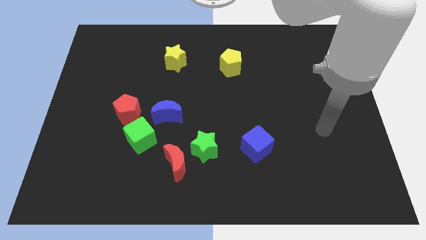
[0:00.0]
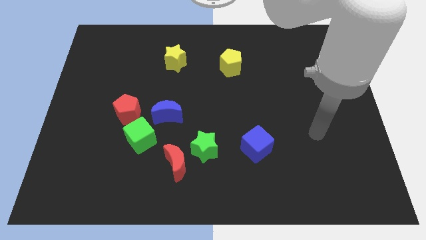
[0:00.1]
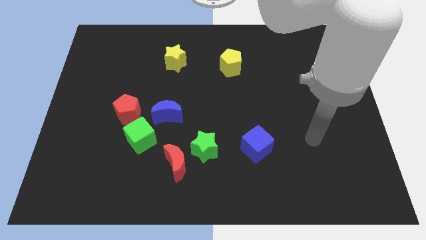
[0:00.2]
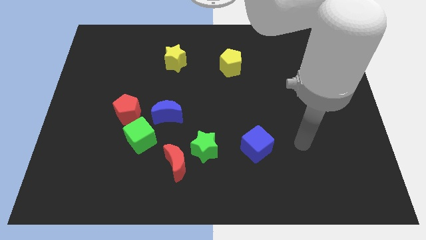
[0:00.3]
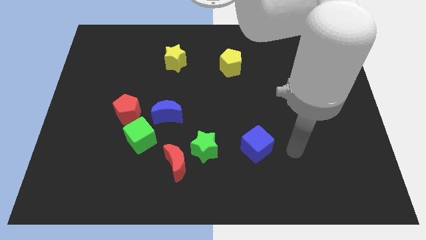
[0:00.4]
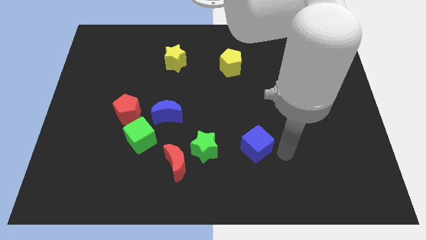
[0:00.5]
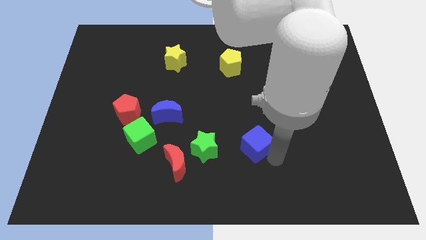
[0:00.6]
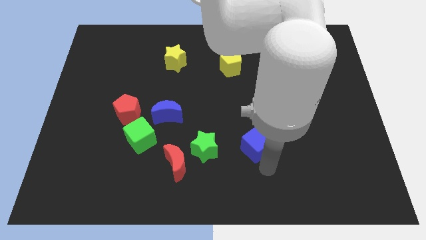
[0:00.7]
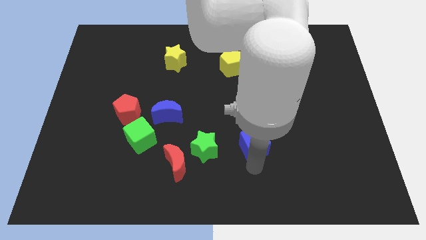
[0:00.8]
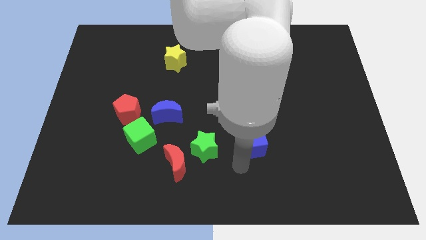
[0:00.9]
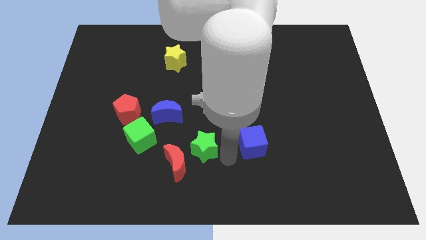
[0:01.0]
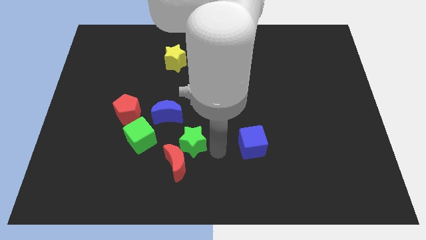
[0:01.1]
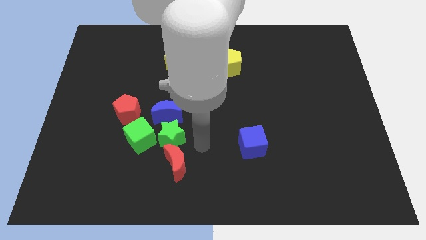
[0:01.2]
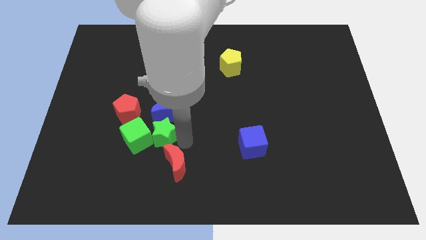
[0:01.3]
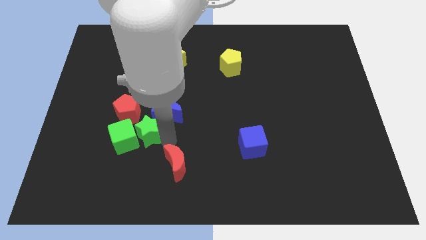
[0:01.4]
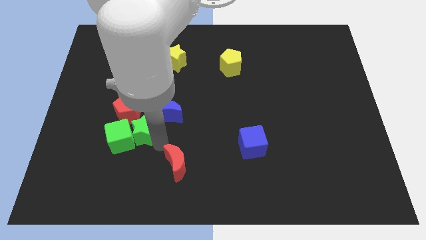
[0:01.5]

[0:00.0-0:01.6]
move the red moon away from the green star

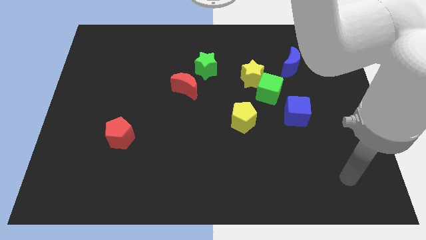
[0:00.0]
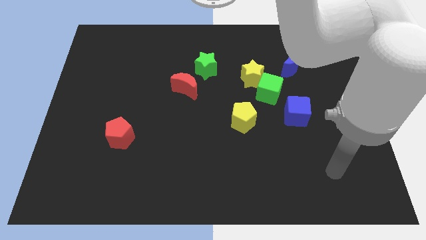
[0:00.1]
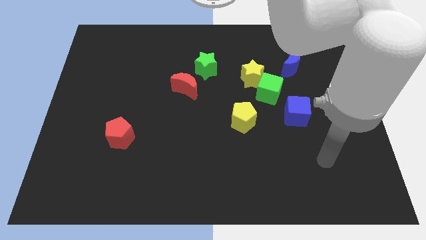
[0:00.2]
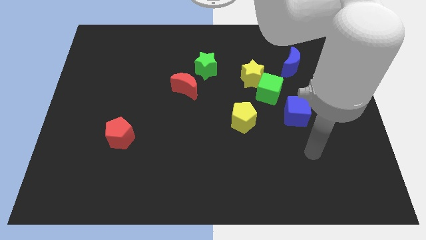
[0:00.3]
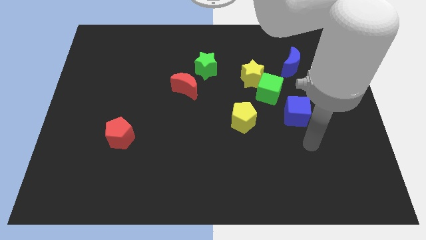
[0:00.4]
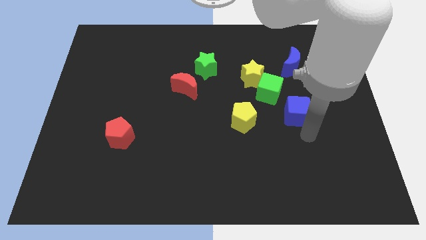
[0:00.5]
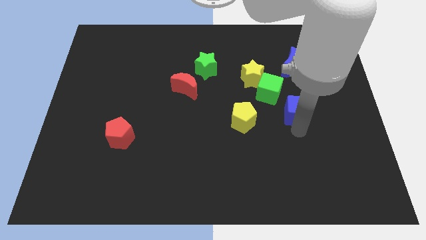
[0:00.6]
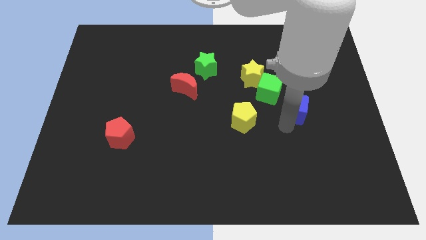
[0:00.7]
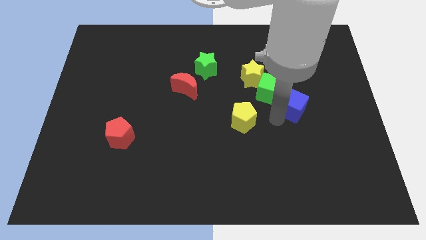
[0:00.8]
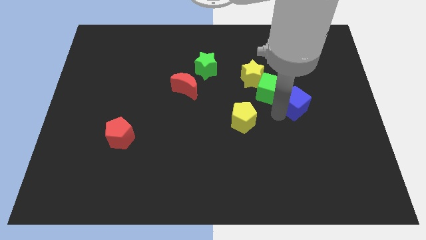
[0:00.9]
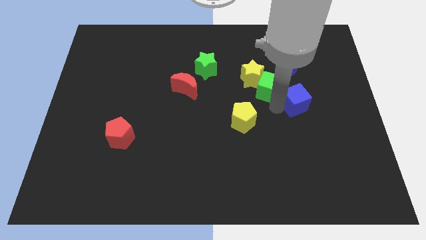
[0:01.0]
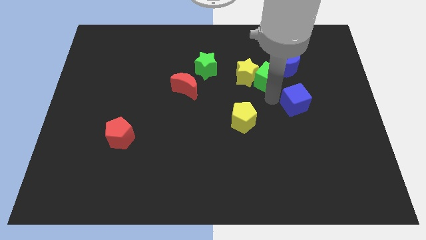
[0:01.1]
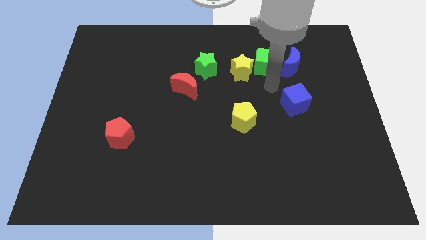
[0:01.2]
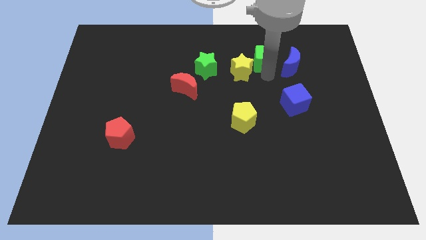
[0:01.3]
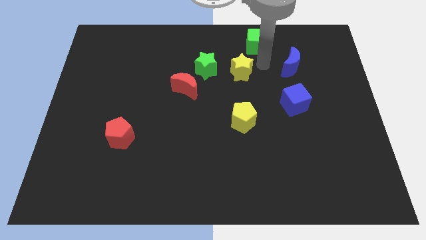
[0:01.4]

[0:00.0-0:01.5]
pull the yellow star apart from the green cube

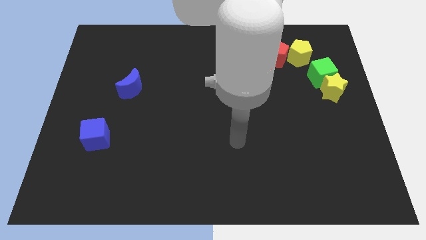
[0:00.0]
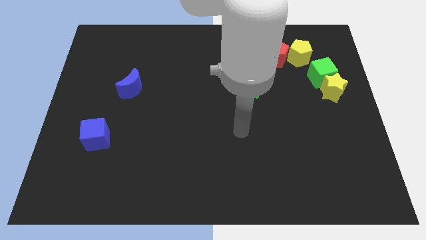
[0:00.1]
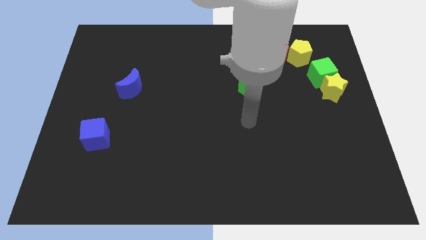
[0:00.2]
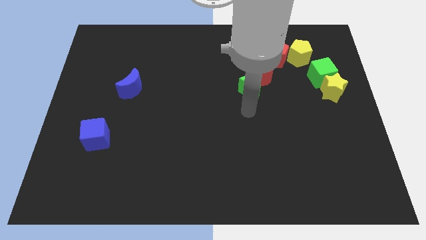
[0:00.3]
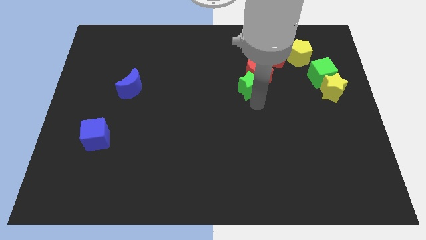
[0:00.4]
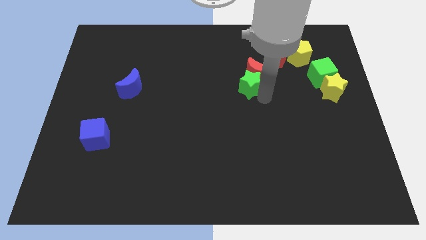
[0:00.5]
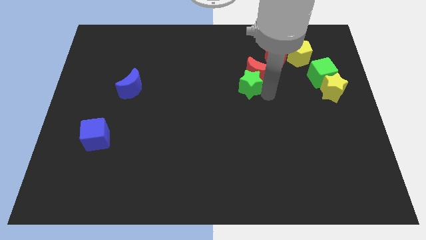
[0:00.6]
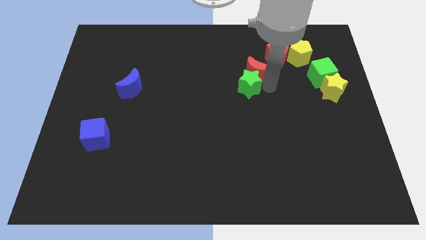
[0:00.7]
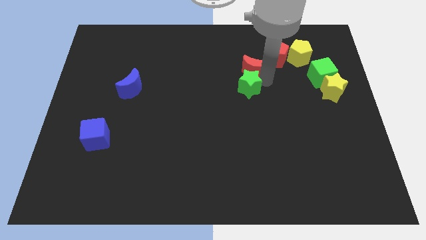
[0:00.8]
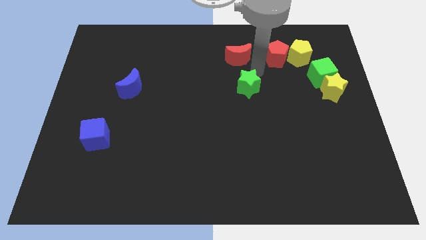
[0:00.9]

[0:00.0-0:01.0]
pull the green star apart from the red moon

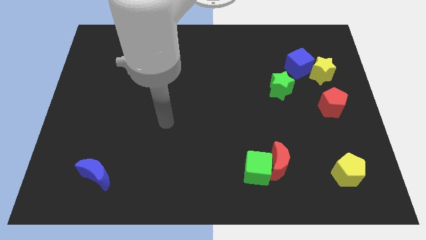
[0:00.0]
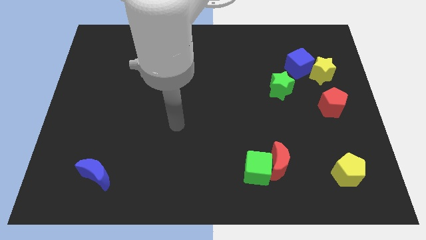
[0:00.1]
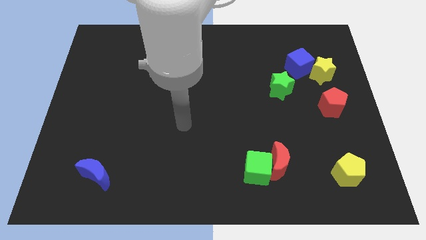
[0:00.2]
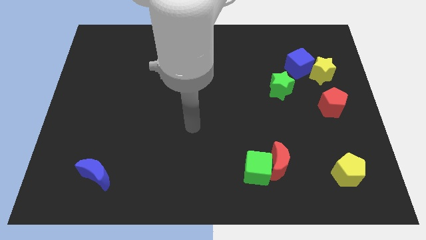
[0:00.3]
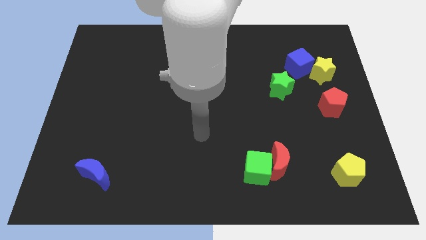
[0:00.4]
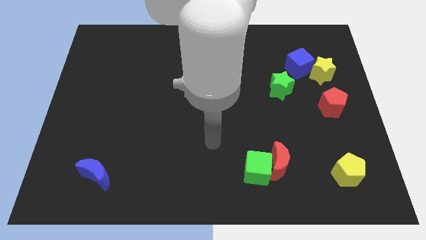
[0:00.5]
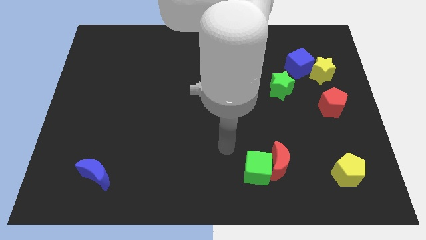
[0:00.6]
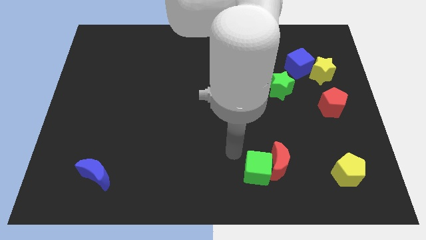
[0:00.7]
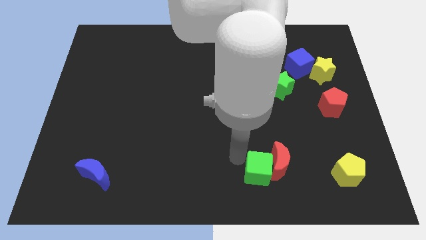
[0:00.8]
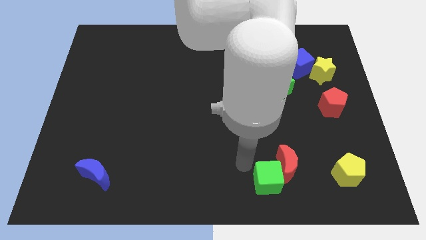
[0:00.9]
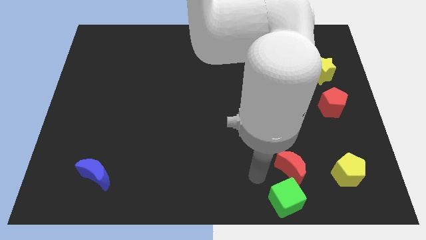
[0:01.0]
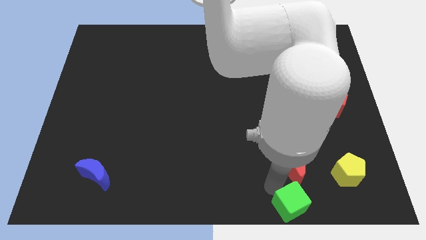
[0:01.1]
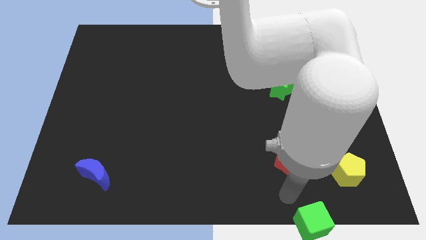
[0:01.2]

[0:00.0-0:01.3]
pull the red moon apart from the green cube

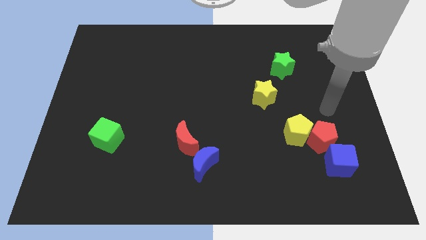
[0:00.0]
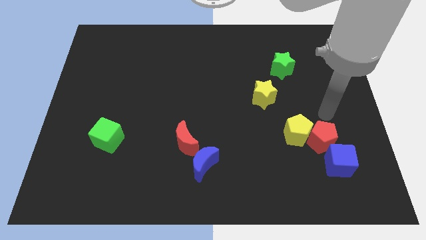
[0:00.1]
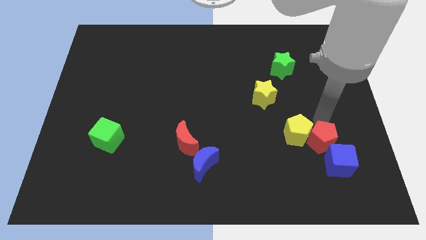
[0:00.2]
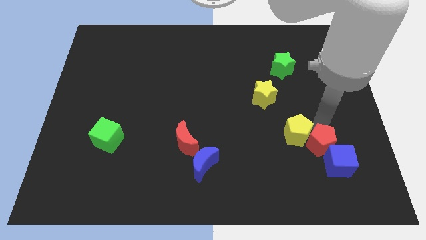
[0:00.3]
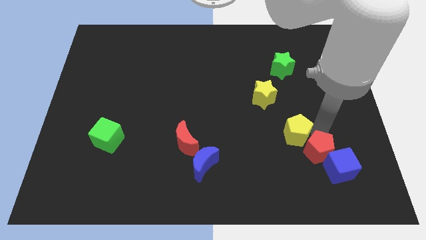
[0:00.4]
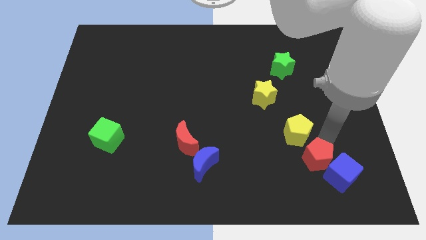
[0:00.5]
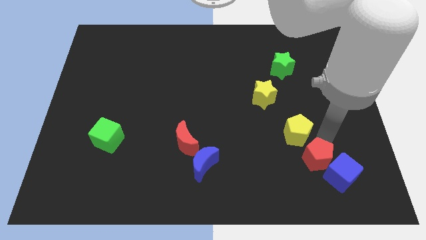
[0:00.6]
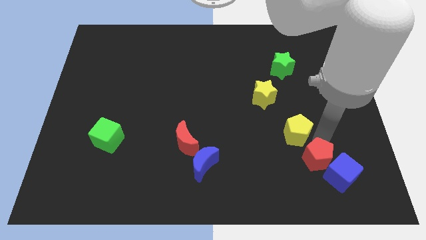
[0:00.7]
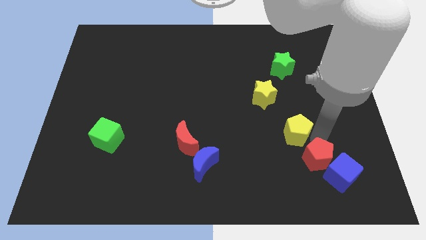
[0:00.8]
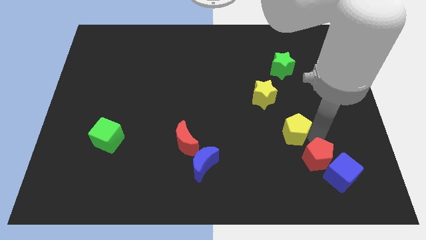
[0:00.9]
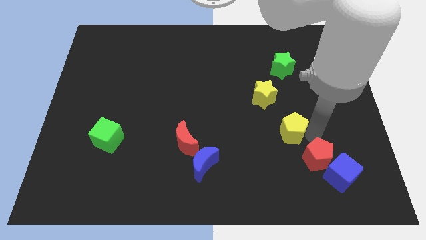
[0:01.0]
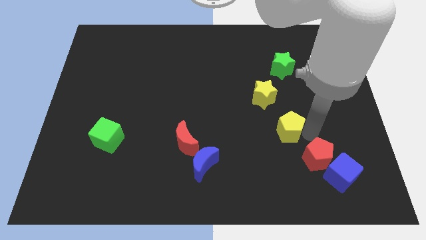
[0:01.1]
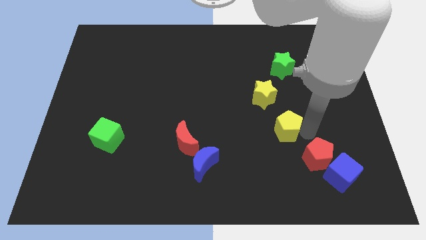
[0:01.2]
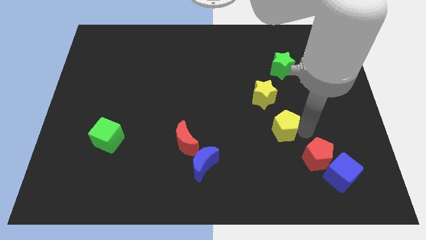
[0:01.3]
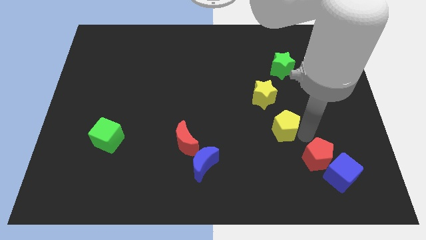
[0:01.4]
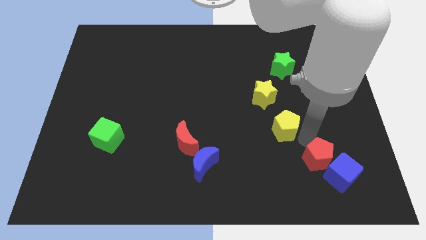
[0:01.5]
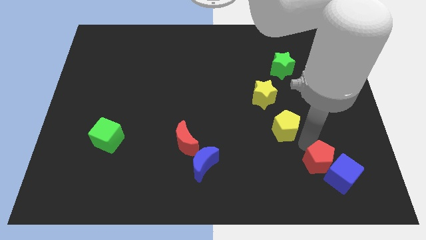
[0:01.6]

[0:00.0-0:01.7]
separate the yellow pentagon from the red pentagon

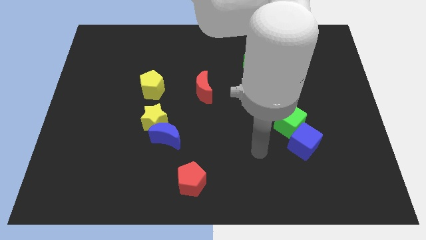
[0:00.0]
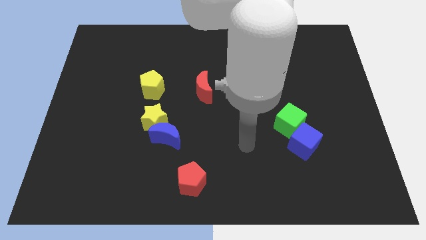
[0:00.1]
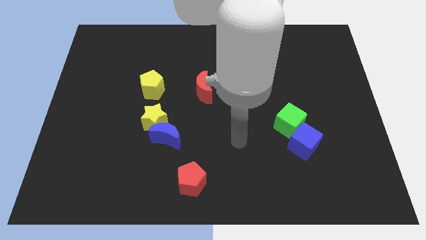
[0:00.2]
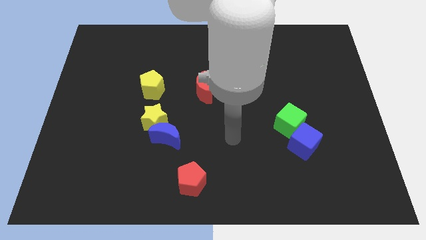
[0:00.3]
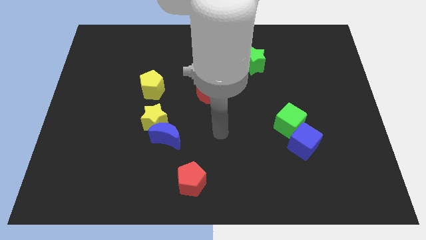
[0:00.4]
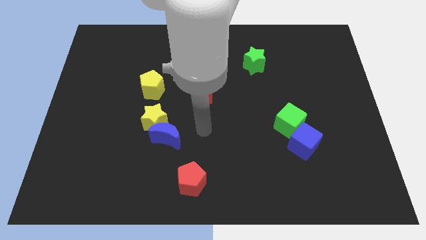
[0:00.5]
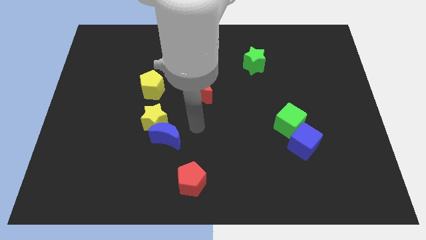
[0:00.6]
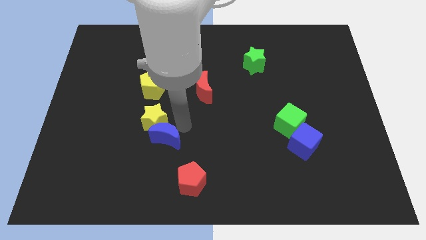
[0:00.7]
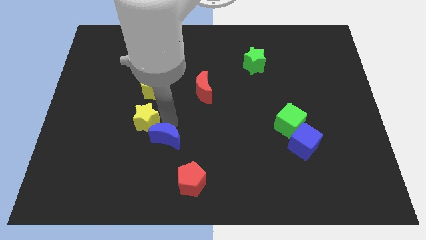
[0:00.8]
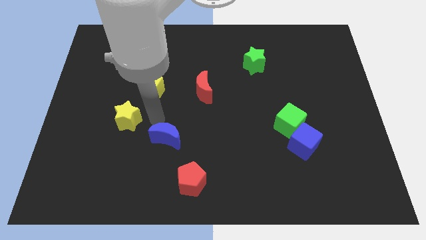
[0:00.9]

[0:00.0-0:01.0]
separate the blue moon from the yellow star

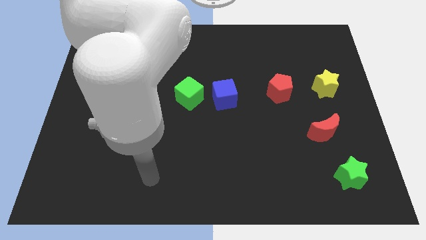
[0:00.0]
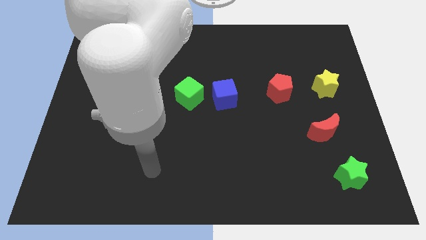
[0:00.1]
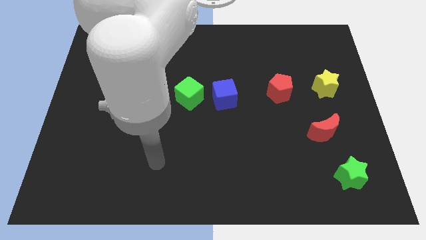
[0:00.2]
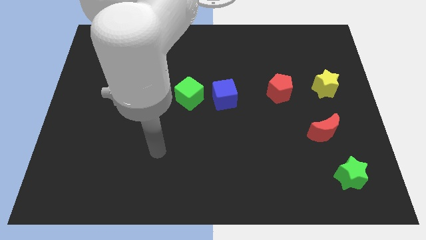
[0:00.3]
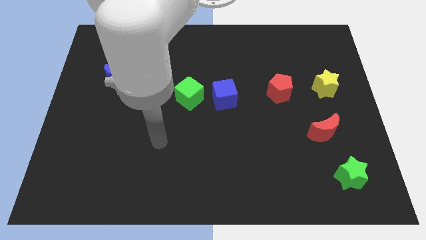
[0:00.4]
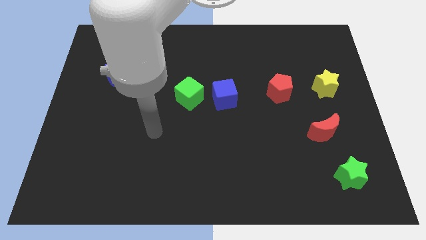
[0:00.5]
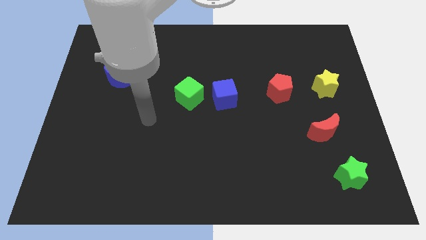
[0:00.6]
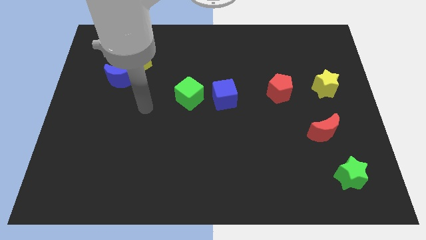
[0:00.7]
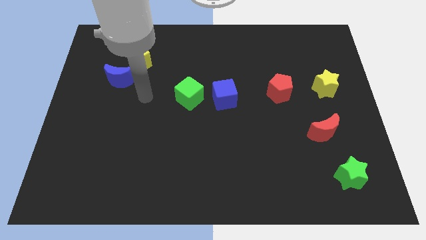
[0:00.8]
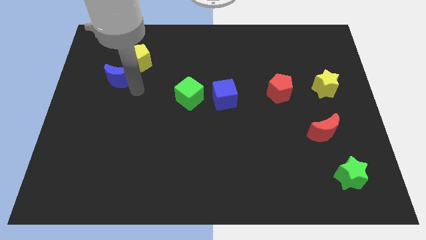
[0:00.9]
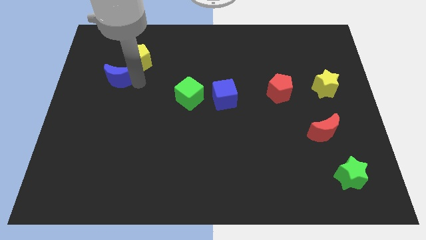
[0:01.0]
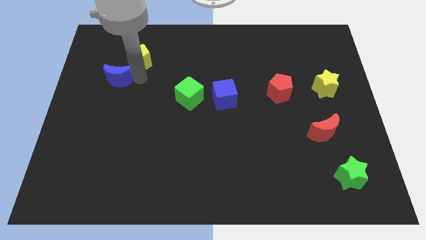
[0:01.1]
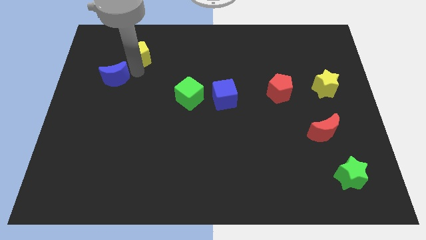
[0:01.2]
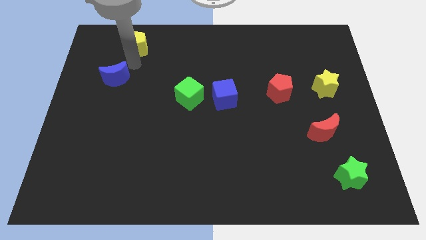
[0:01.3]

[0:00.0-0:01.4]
separate the blue moon from the yellow pentagon
